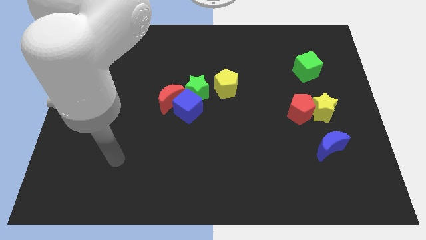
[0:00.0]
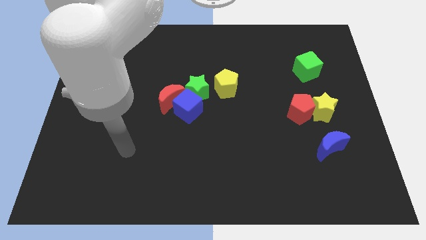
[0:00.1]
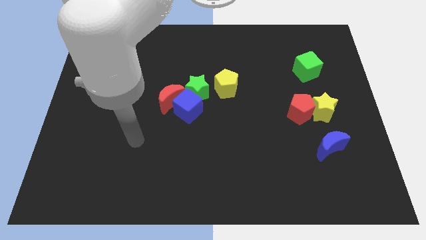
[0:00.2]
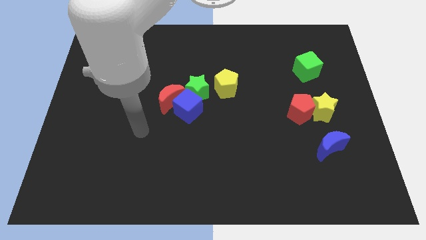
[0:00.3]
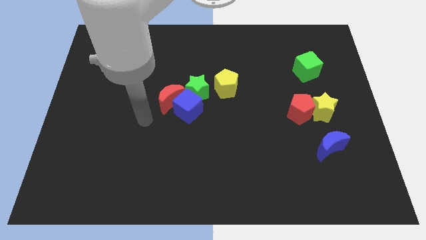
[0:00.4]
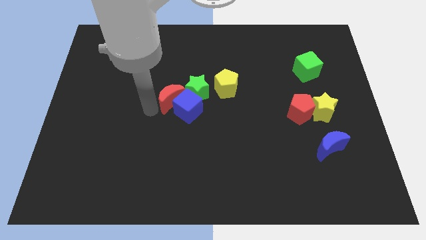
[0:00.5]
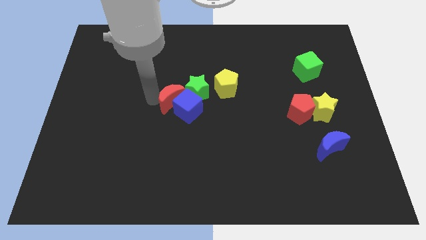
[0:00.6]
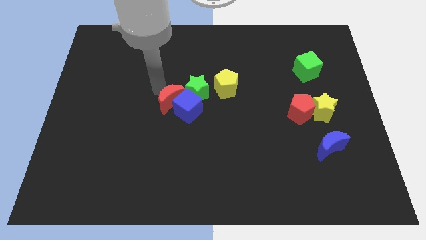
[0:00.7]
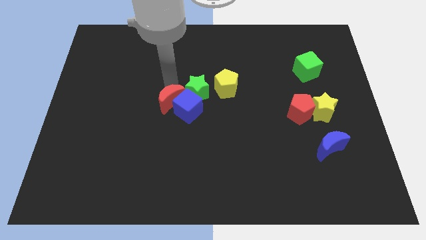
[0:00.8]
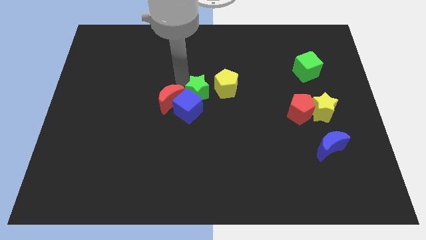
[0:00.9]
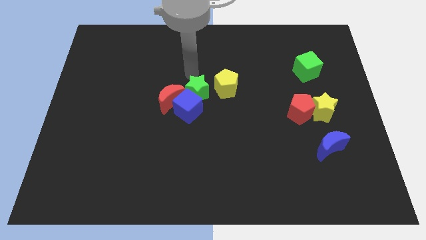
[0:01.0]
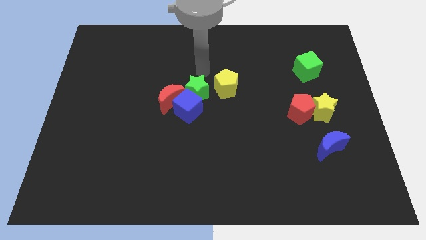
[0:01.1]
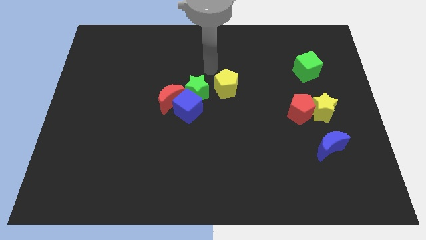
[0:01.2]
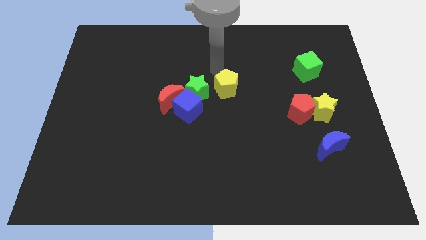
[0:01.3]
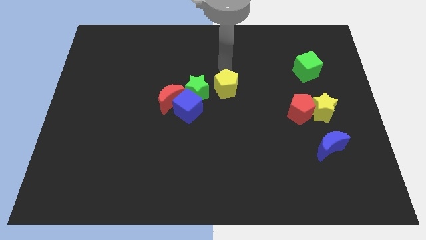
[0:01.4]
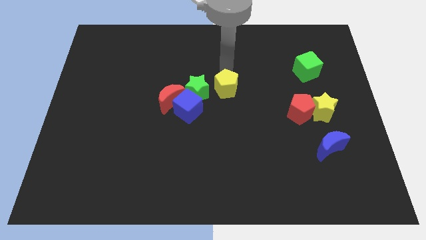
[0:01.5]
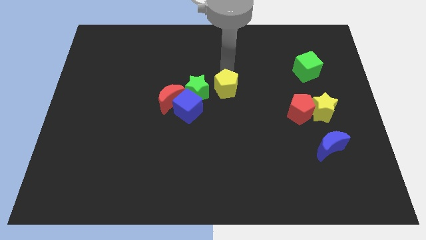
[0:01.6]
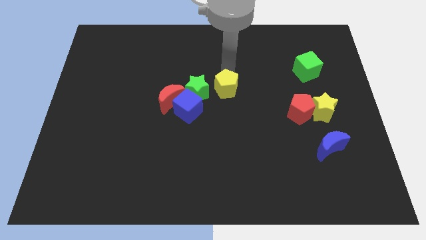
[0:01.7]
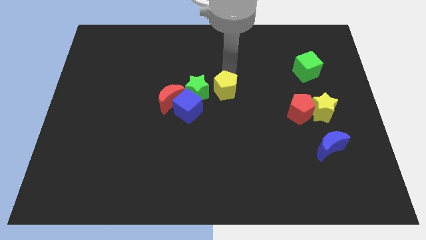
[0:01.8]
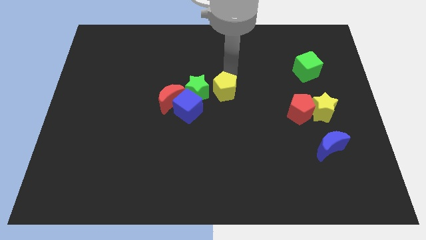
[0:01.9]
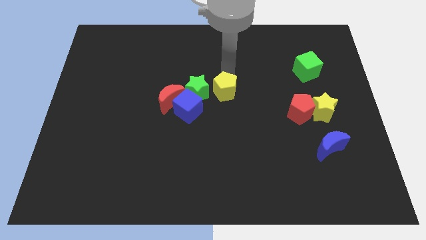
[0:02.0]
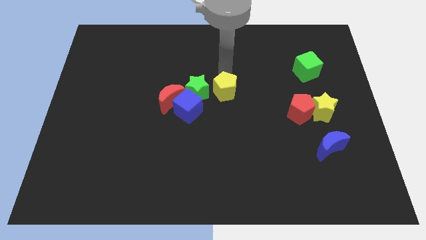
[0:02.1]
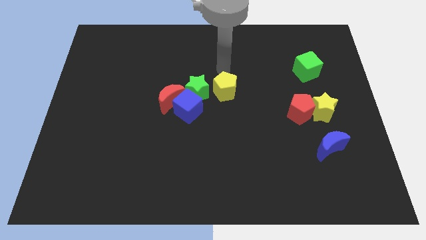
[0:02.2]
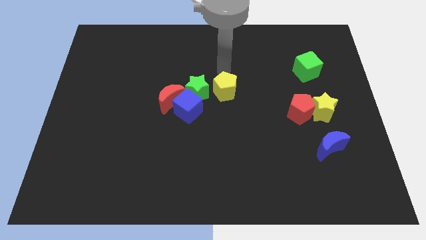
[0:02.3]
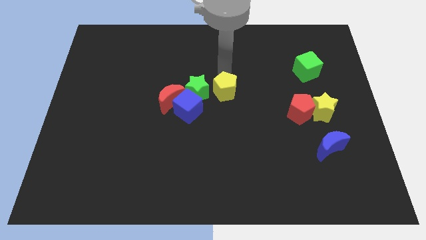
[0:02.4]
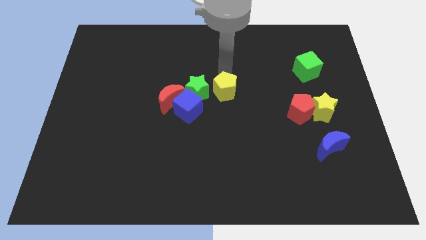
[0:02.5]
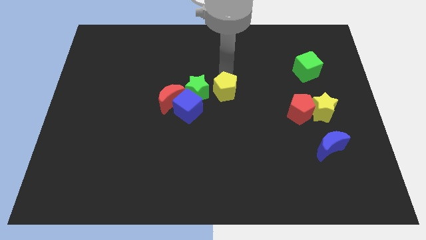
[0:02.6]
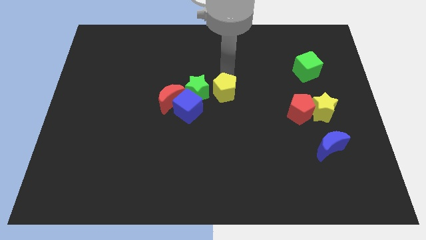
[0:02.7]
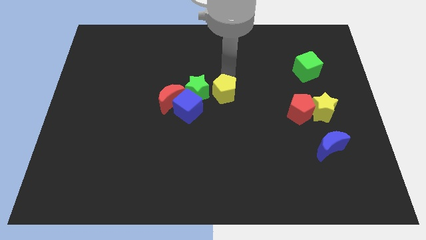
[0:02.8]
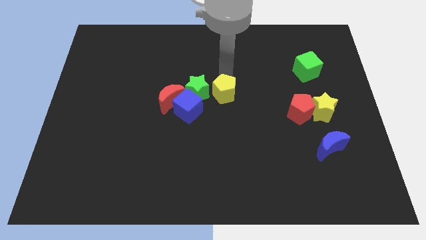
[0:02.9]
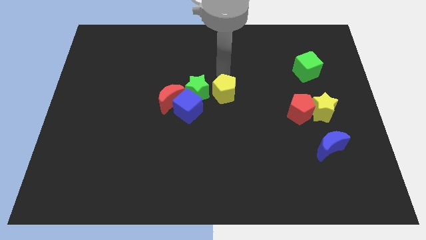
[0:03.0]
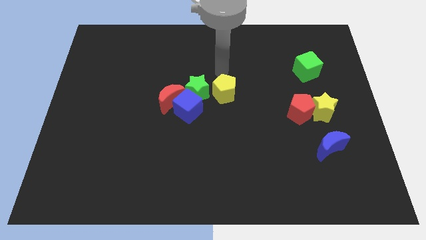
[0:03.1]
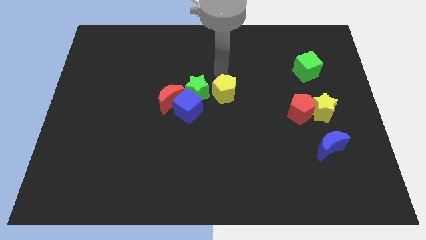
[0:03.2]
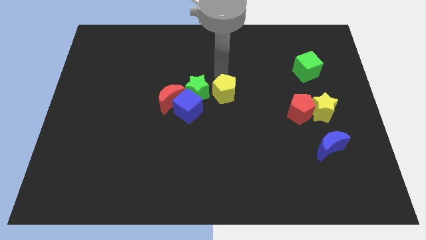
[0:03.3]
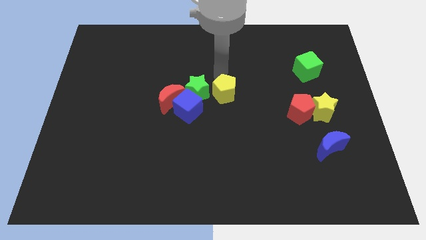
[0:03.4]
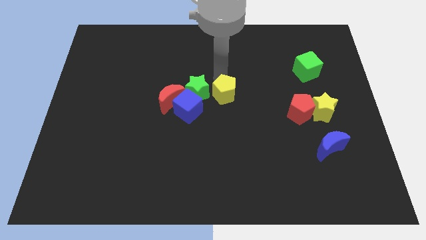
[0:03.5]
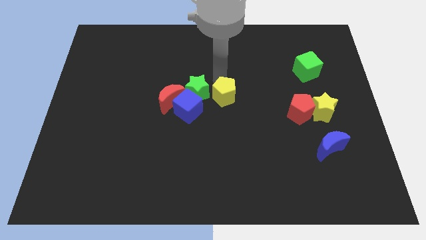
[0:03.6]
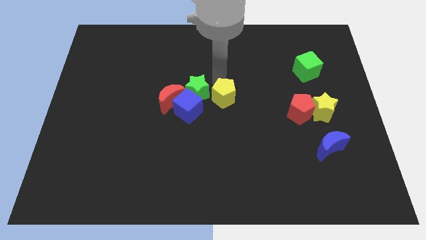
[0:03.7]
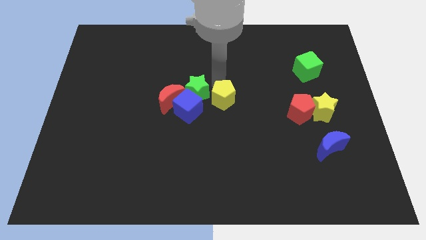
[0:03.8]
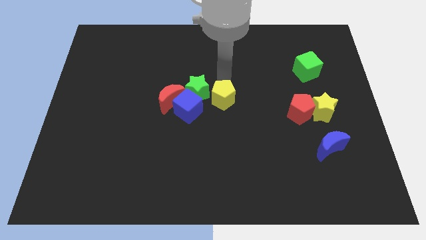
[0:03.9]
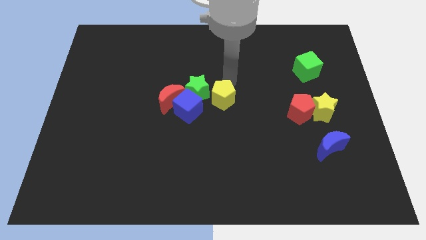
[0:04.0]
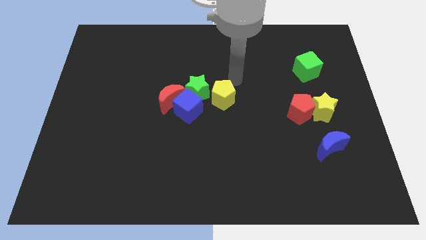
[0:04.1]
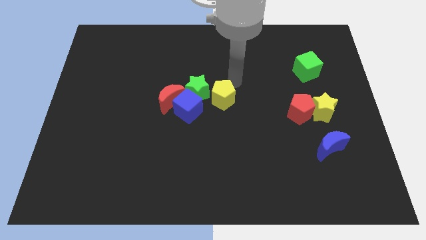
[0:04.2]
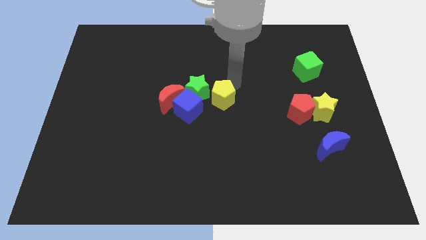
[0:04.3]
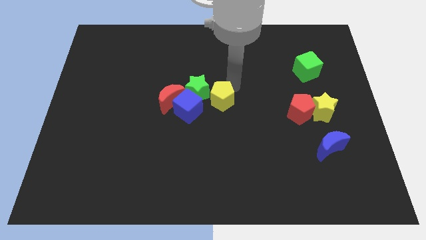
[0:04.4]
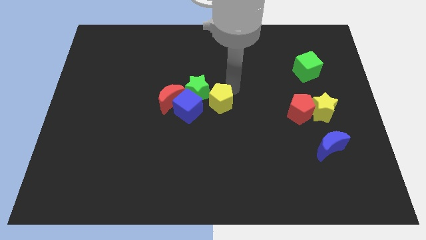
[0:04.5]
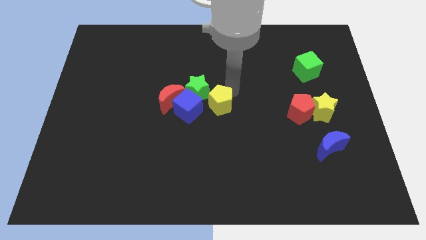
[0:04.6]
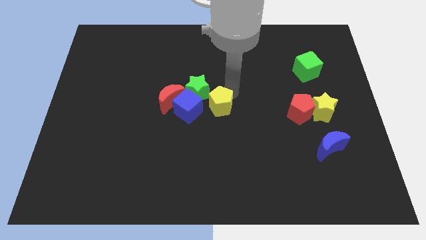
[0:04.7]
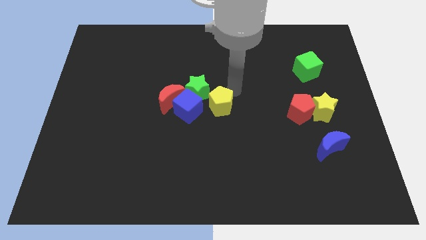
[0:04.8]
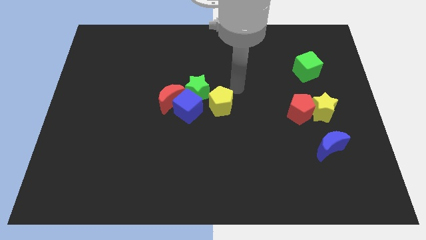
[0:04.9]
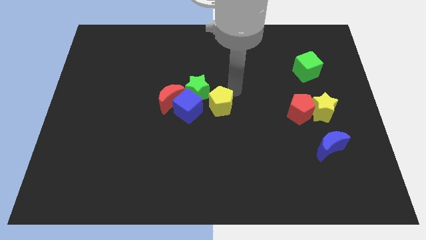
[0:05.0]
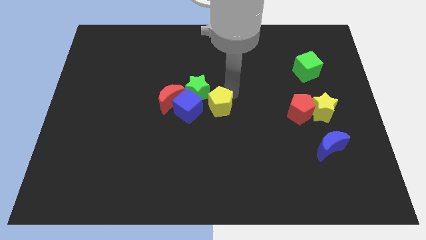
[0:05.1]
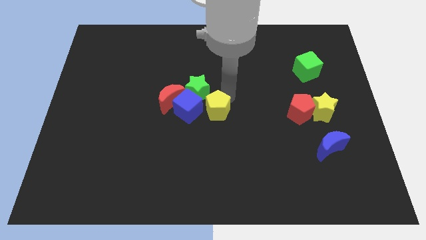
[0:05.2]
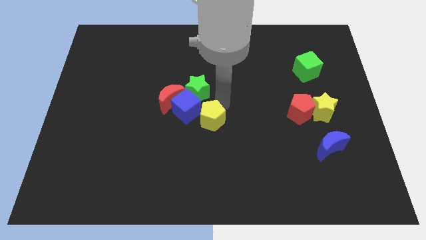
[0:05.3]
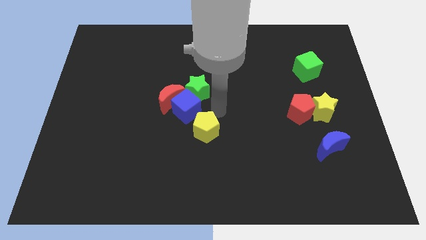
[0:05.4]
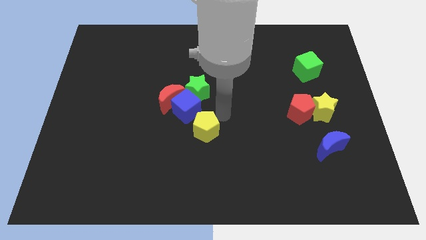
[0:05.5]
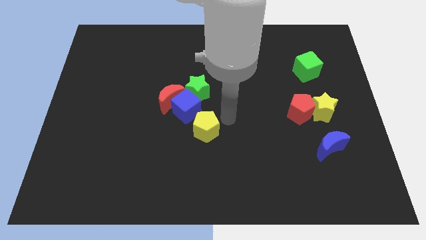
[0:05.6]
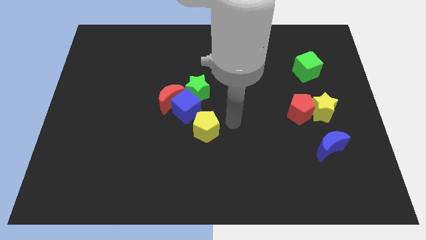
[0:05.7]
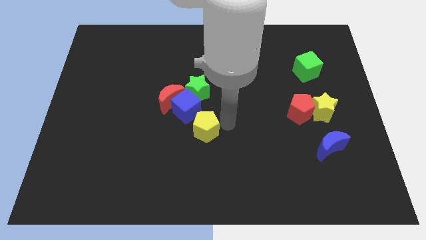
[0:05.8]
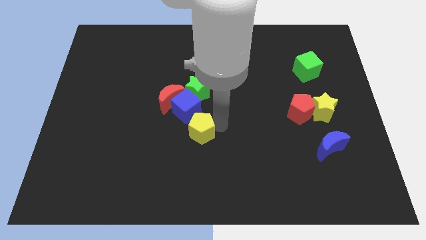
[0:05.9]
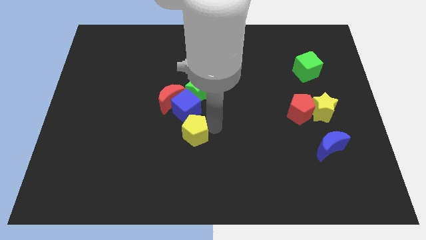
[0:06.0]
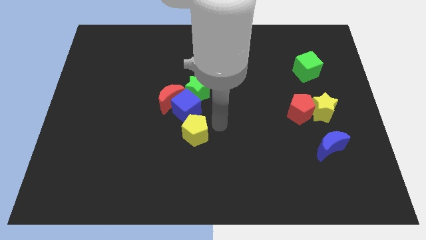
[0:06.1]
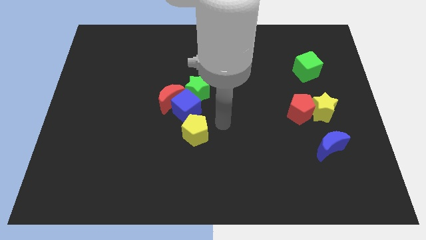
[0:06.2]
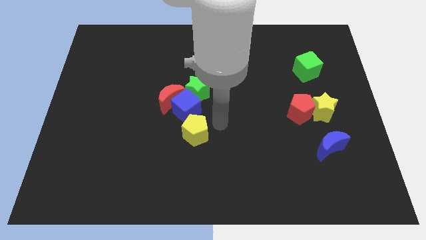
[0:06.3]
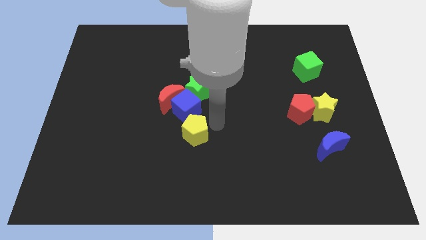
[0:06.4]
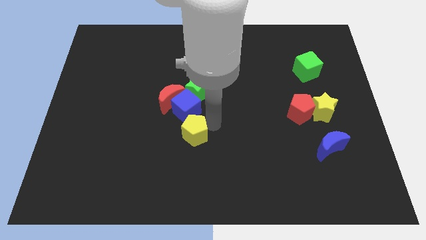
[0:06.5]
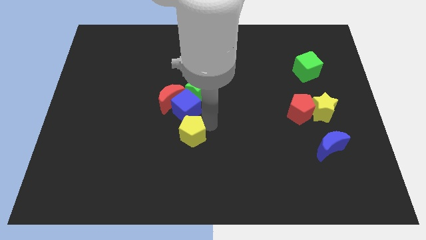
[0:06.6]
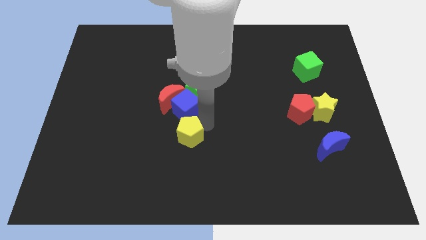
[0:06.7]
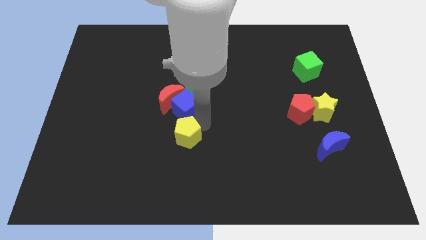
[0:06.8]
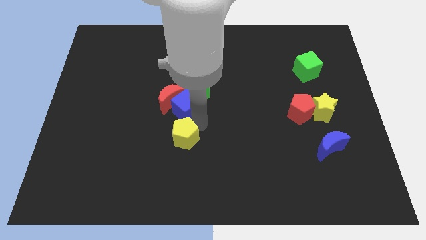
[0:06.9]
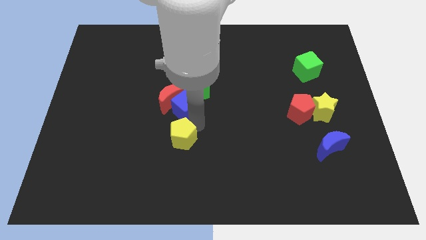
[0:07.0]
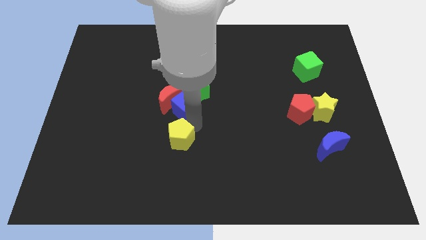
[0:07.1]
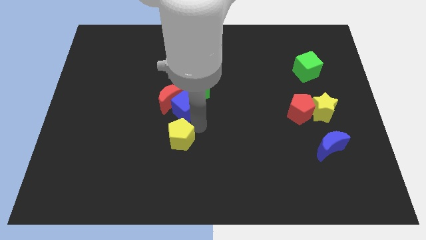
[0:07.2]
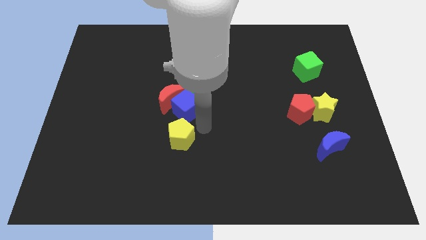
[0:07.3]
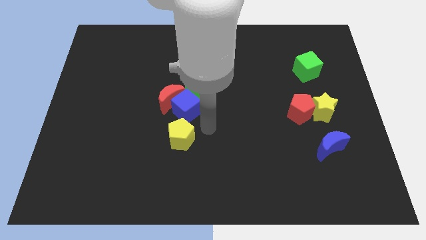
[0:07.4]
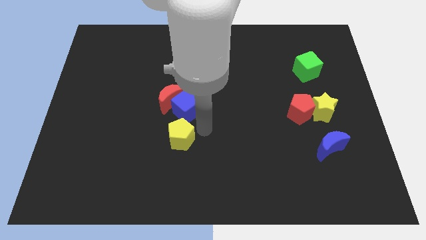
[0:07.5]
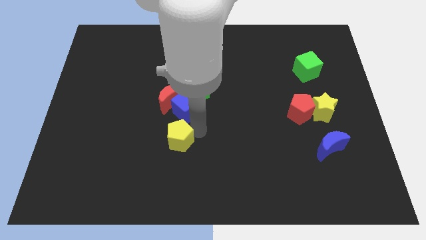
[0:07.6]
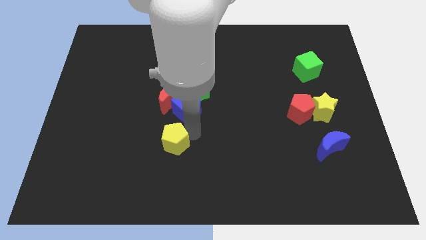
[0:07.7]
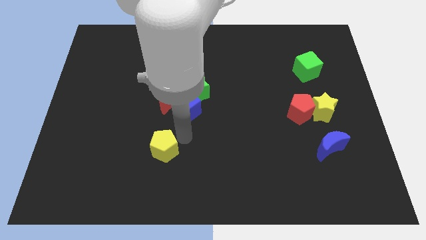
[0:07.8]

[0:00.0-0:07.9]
push the yellow pentagon down and then left

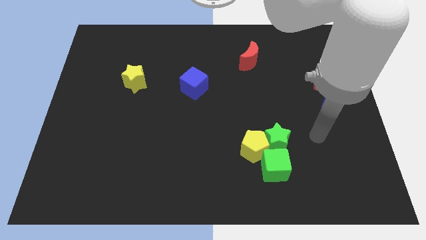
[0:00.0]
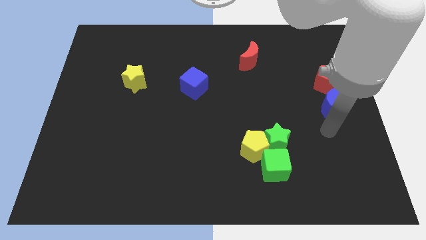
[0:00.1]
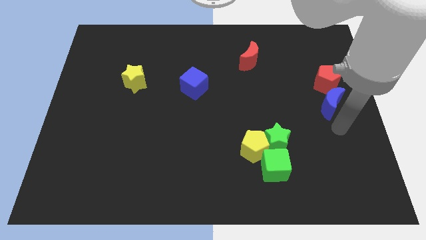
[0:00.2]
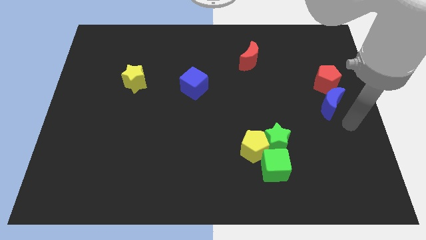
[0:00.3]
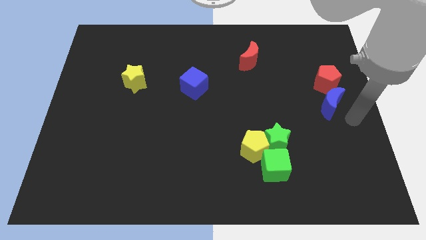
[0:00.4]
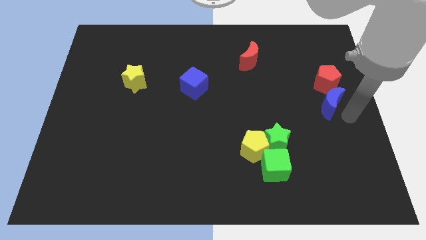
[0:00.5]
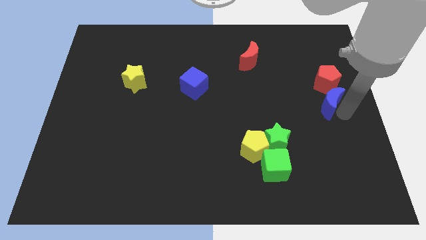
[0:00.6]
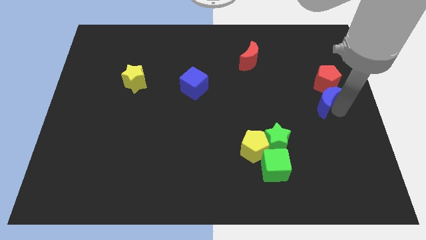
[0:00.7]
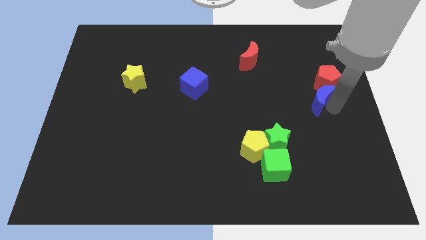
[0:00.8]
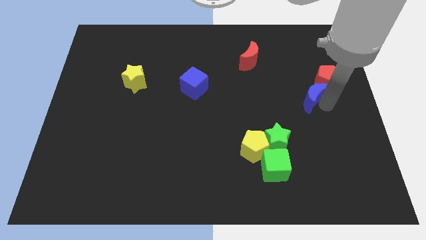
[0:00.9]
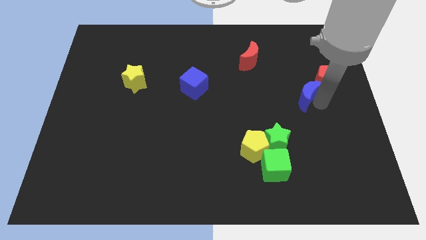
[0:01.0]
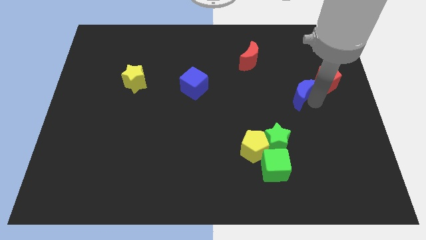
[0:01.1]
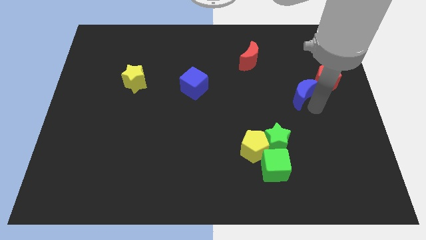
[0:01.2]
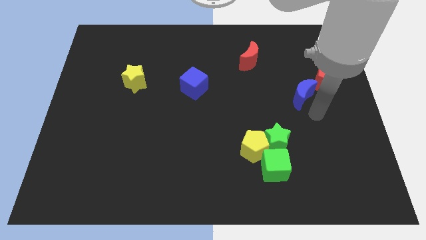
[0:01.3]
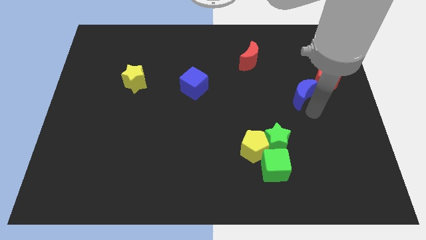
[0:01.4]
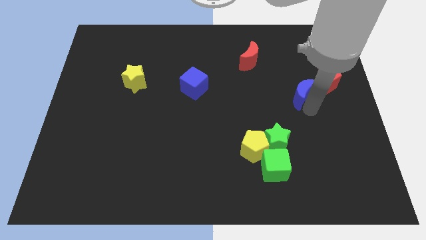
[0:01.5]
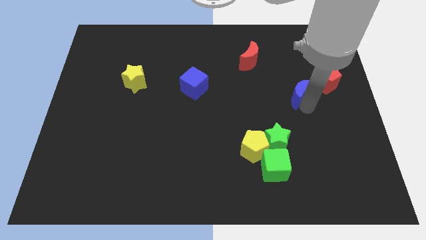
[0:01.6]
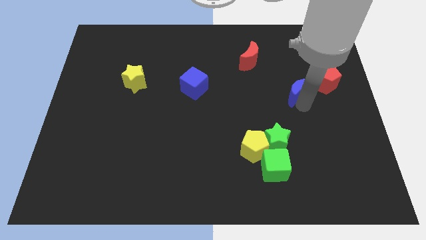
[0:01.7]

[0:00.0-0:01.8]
slide the blue moon upwards and left diagonally somewhat
